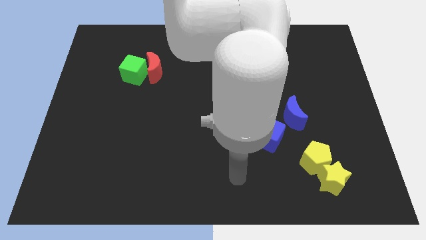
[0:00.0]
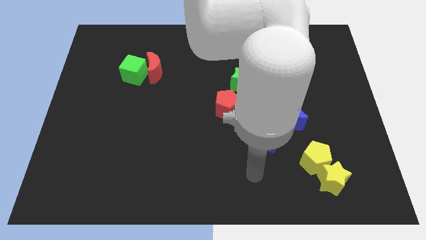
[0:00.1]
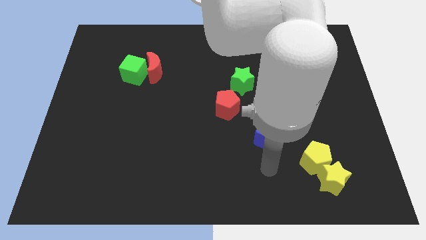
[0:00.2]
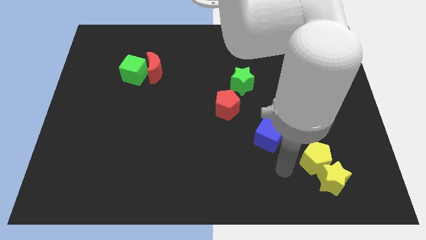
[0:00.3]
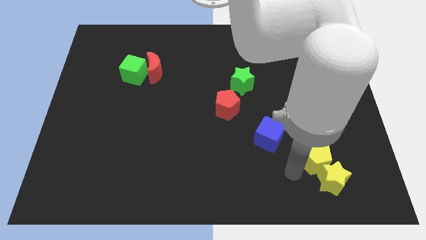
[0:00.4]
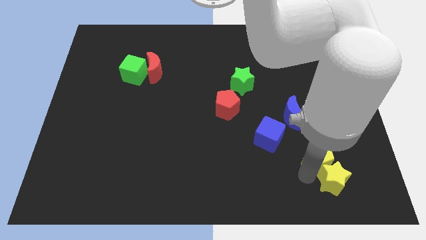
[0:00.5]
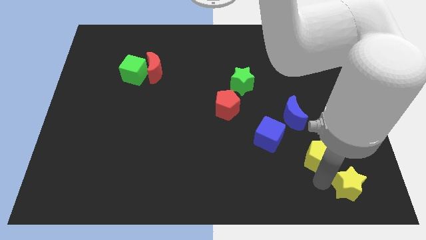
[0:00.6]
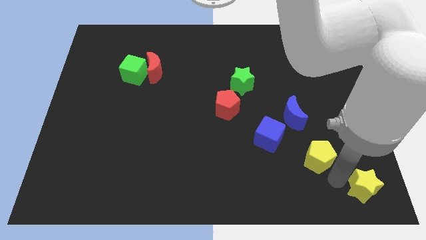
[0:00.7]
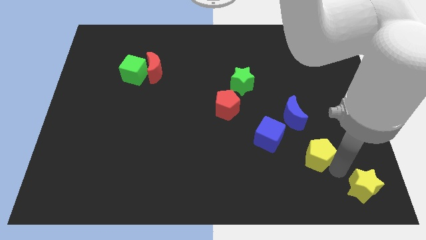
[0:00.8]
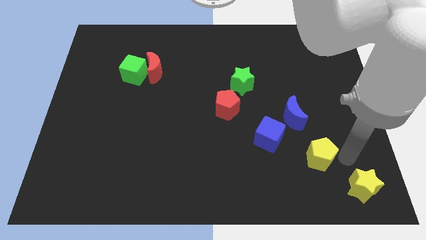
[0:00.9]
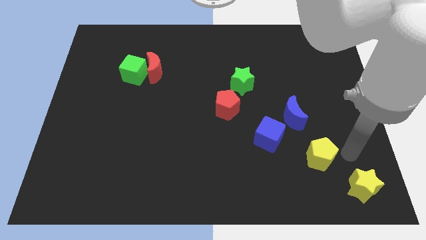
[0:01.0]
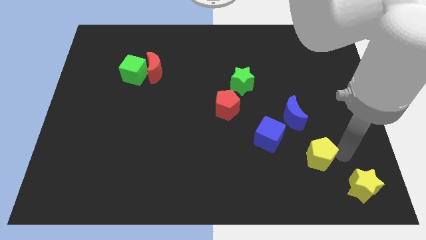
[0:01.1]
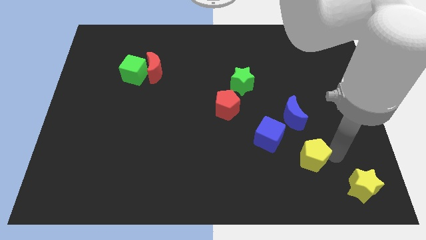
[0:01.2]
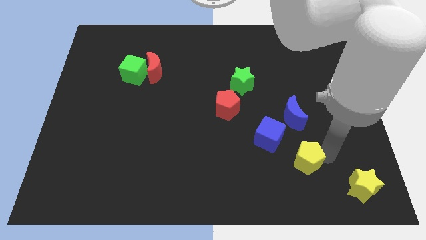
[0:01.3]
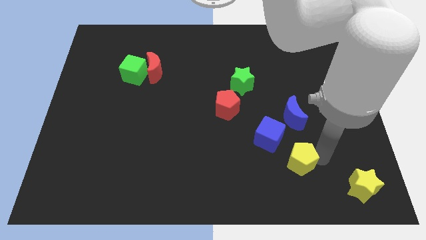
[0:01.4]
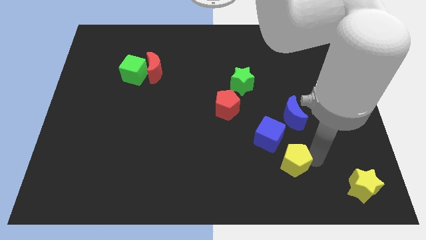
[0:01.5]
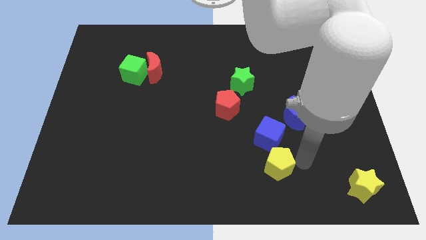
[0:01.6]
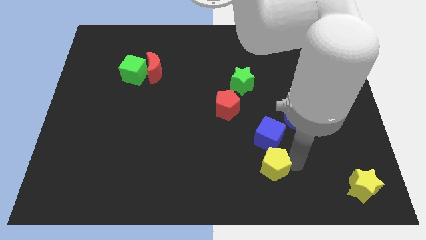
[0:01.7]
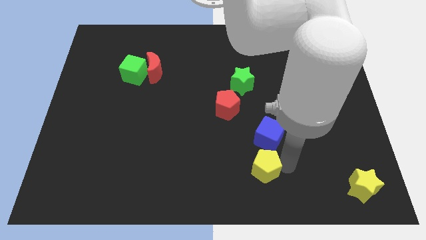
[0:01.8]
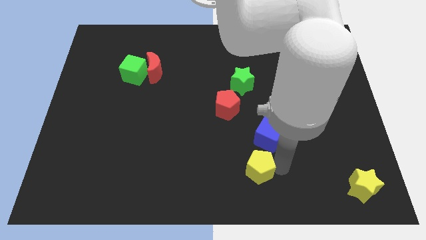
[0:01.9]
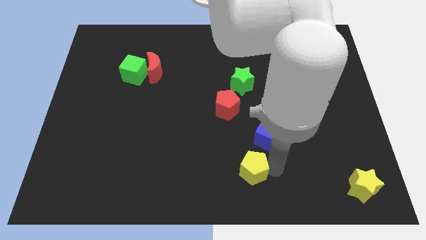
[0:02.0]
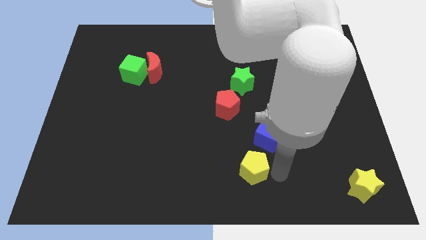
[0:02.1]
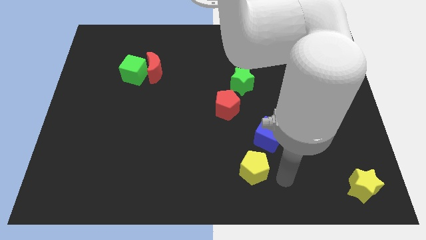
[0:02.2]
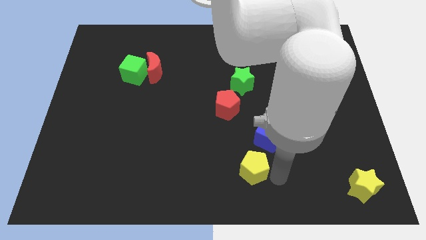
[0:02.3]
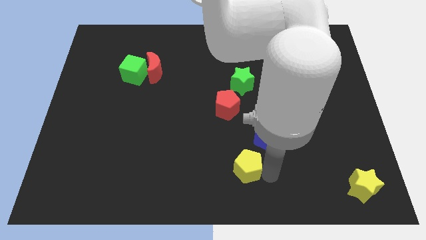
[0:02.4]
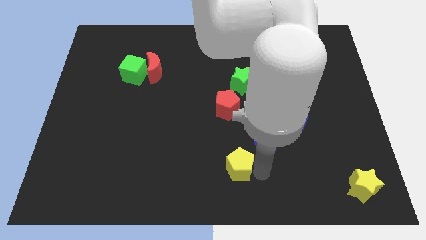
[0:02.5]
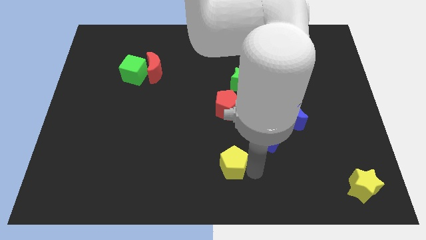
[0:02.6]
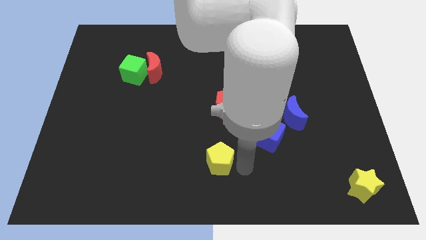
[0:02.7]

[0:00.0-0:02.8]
slide the yellow pentagon left

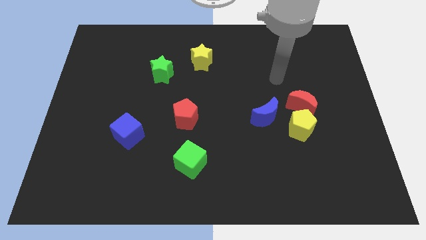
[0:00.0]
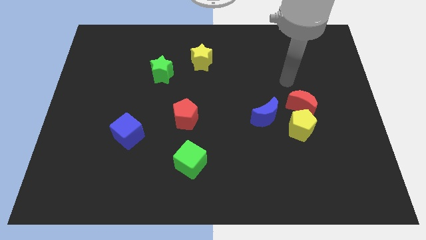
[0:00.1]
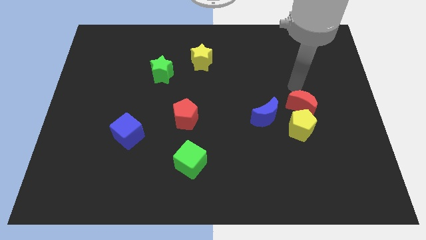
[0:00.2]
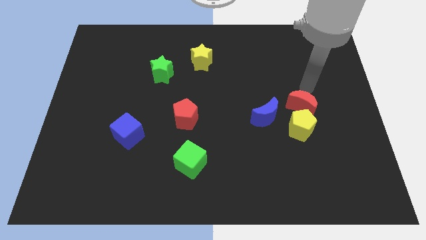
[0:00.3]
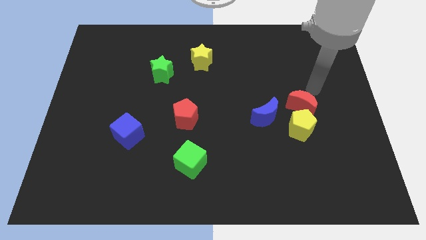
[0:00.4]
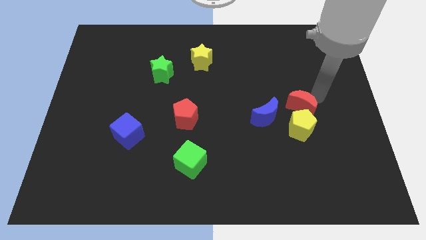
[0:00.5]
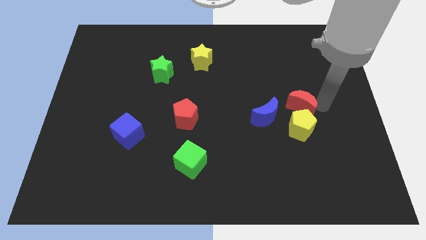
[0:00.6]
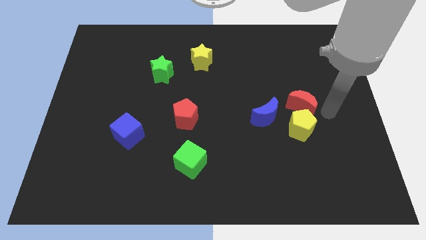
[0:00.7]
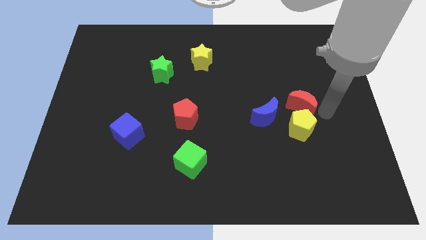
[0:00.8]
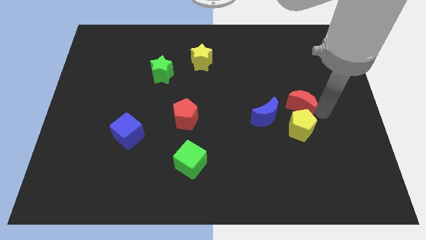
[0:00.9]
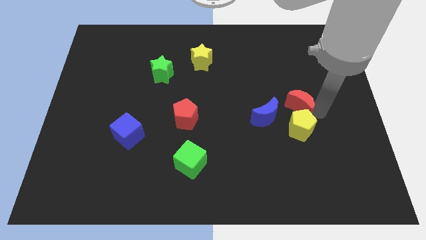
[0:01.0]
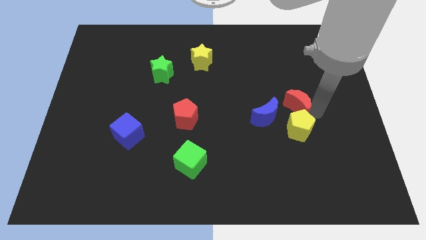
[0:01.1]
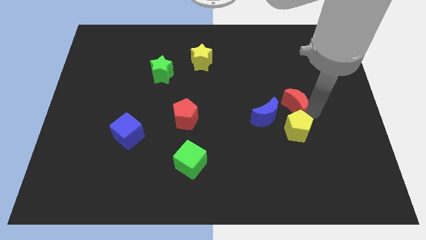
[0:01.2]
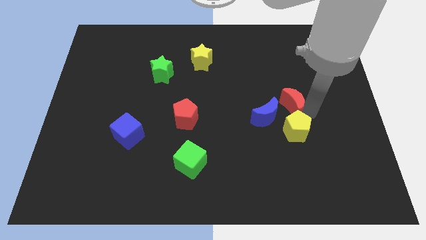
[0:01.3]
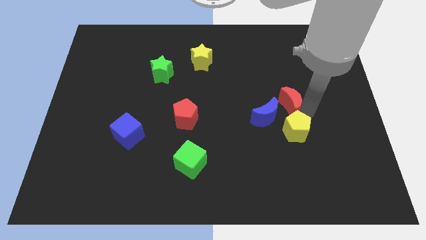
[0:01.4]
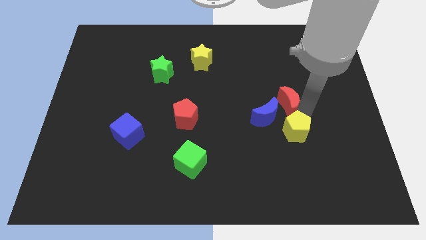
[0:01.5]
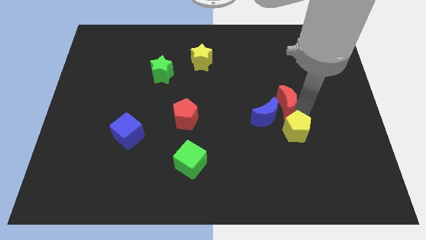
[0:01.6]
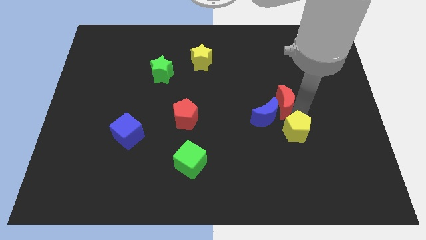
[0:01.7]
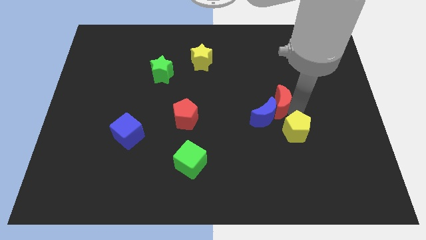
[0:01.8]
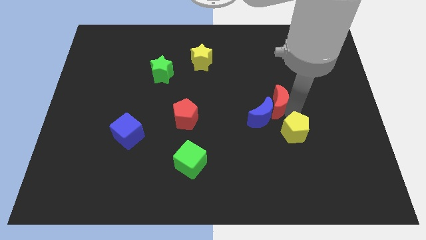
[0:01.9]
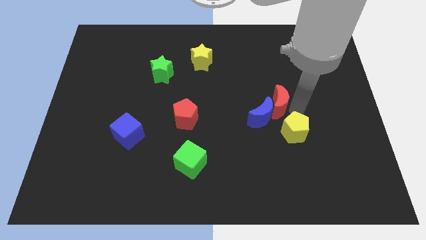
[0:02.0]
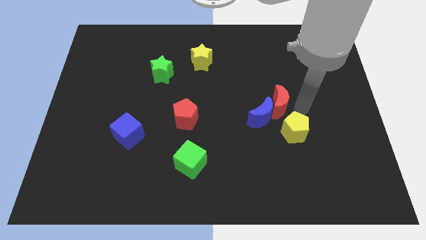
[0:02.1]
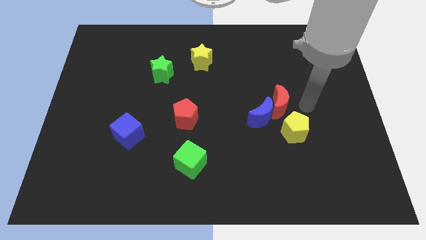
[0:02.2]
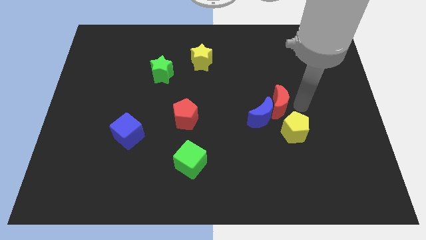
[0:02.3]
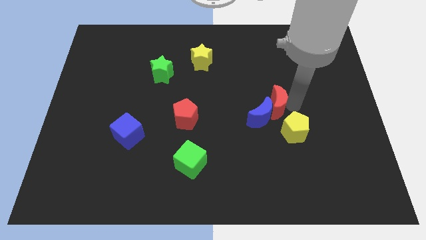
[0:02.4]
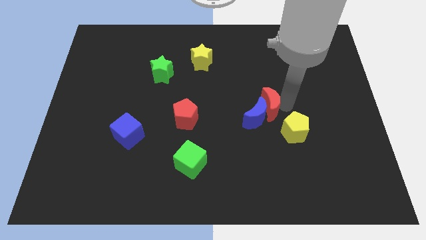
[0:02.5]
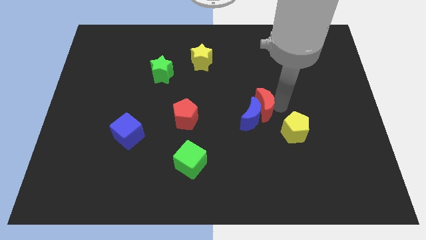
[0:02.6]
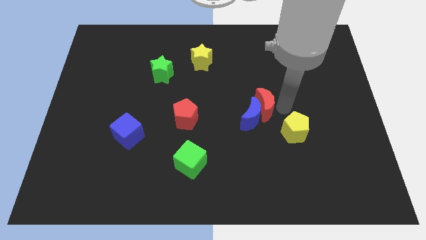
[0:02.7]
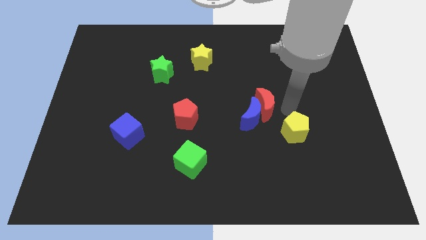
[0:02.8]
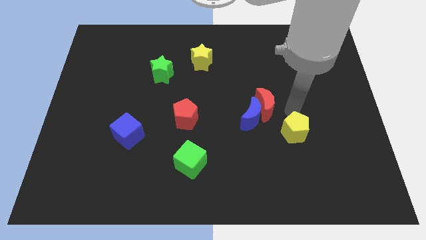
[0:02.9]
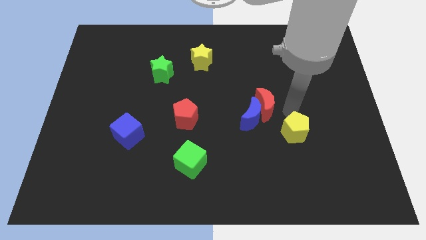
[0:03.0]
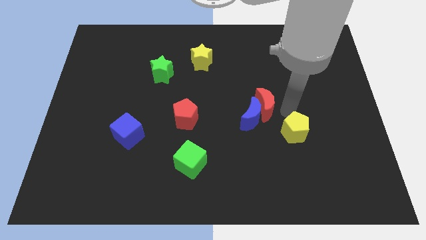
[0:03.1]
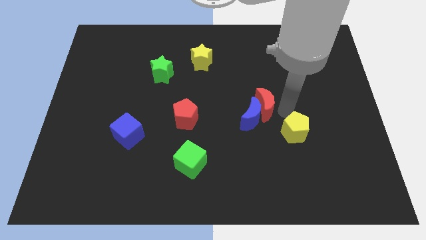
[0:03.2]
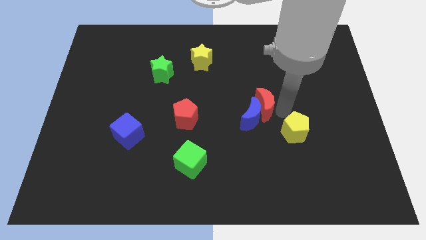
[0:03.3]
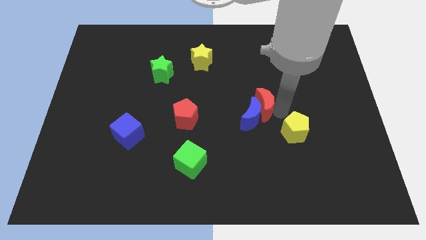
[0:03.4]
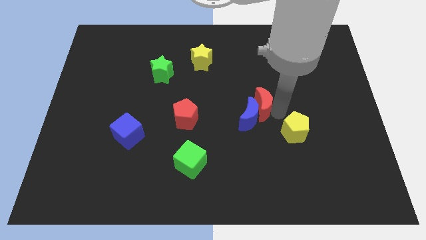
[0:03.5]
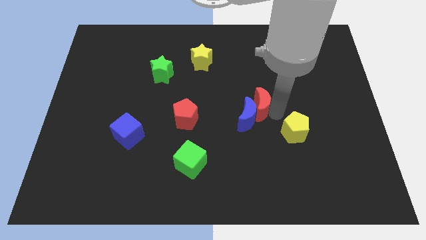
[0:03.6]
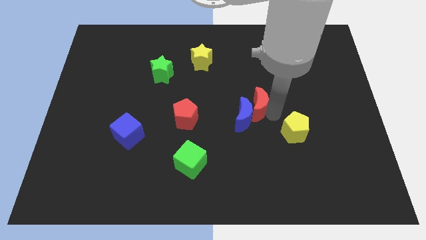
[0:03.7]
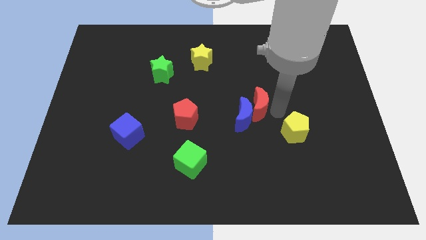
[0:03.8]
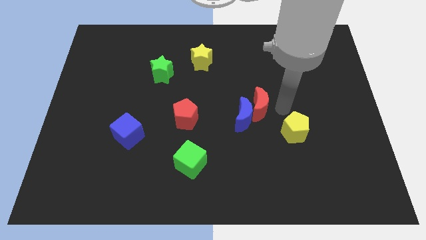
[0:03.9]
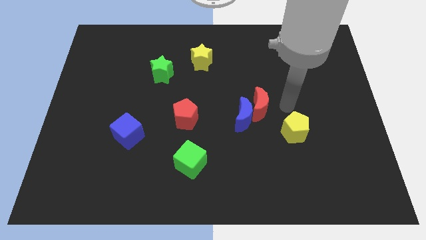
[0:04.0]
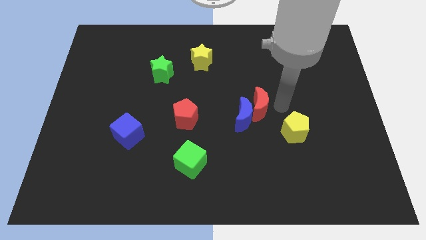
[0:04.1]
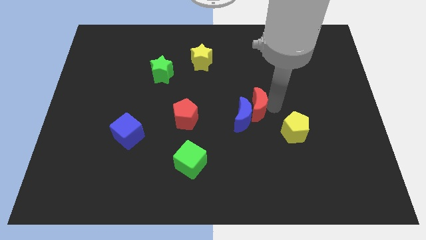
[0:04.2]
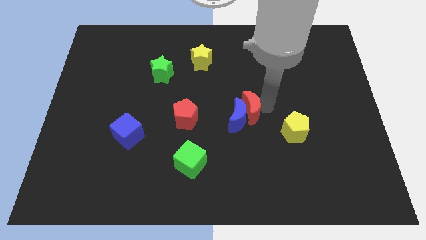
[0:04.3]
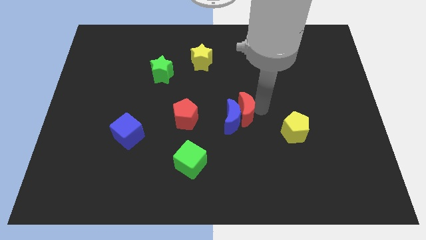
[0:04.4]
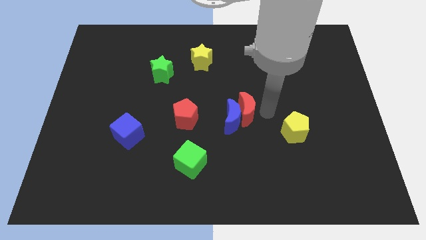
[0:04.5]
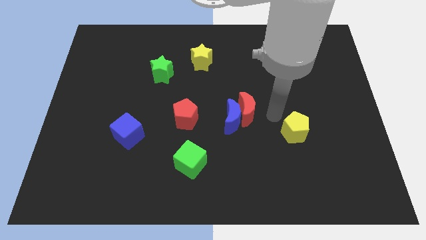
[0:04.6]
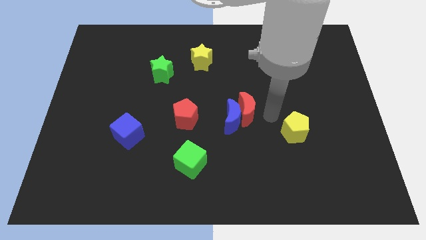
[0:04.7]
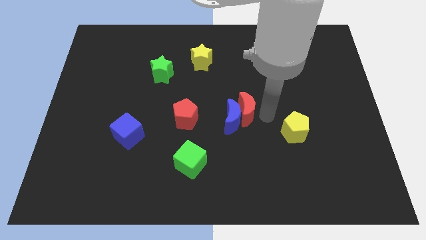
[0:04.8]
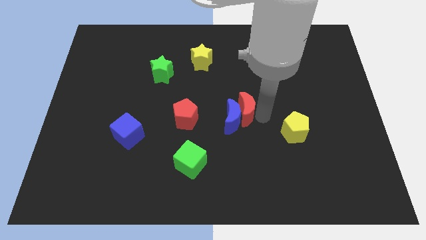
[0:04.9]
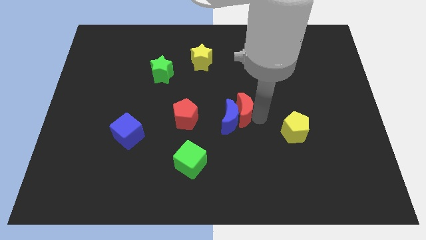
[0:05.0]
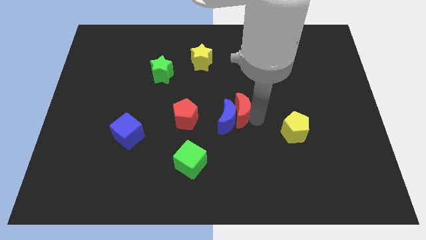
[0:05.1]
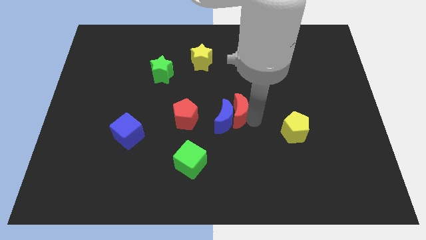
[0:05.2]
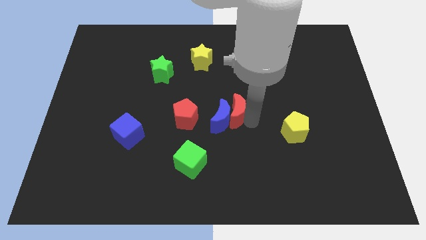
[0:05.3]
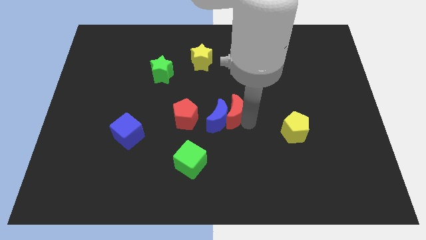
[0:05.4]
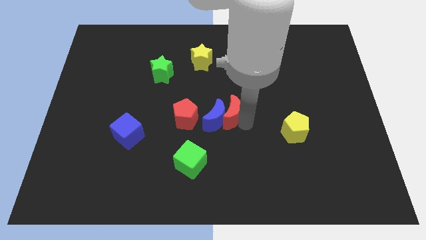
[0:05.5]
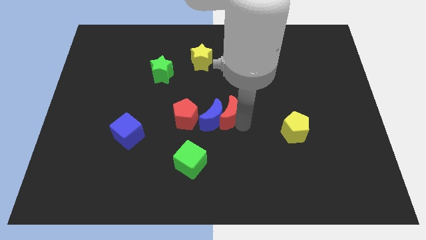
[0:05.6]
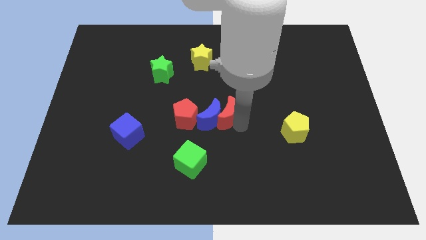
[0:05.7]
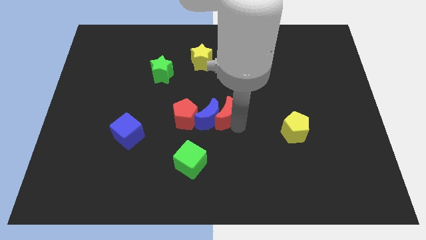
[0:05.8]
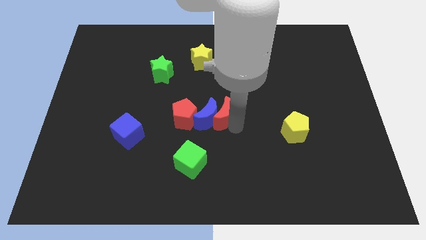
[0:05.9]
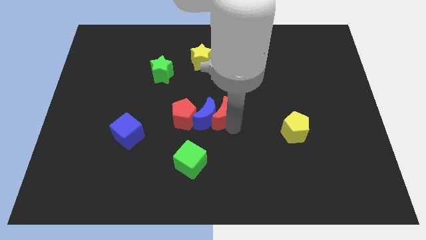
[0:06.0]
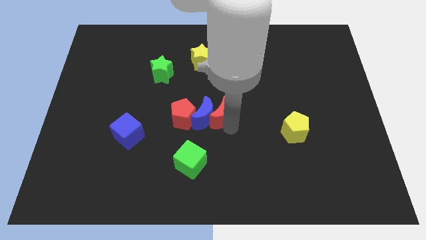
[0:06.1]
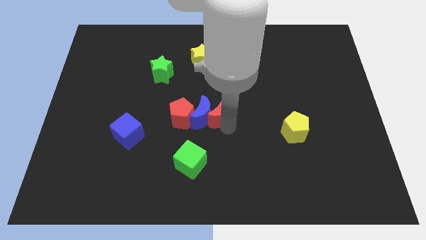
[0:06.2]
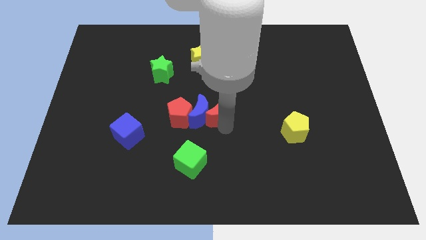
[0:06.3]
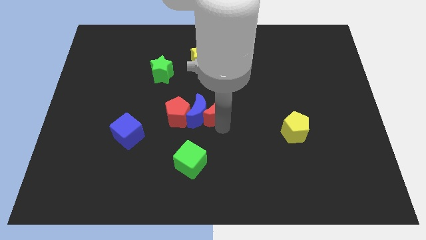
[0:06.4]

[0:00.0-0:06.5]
slide the red moon left
